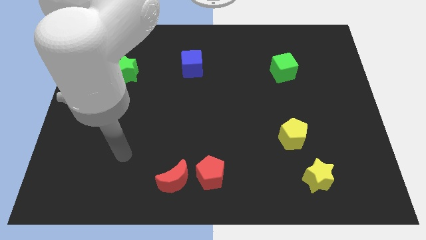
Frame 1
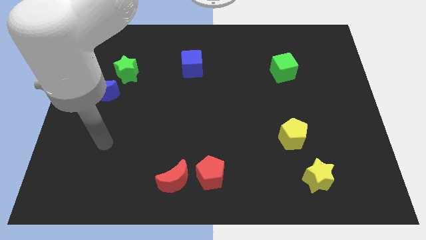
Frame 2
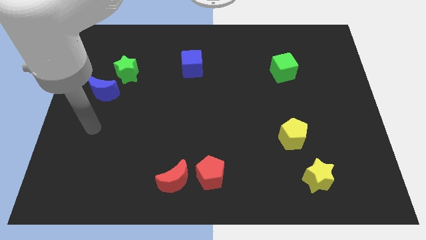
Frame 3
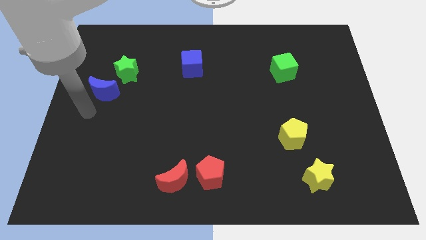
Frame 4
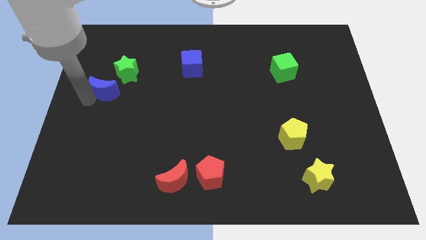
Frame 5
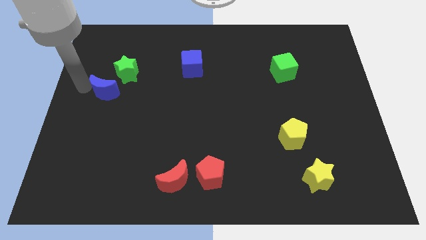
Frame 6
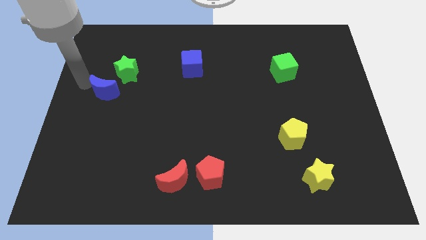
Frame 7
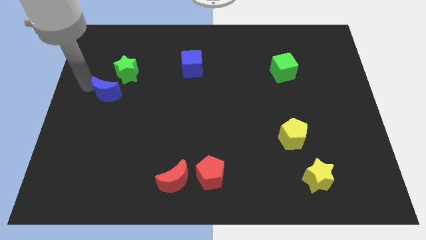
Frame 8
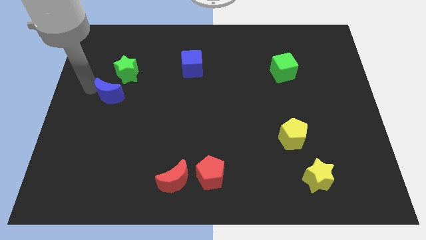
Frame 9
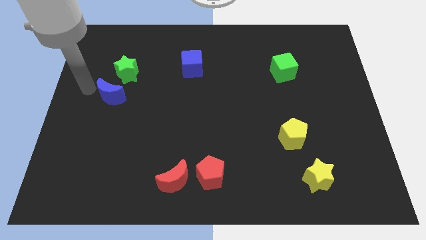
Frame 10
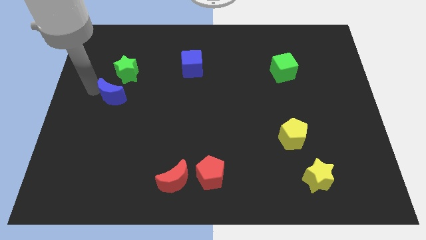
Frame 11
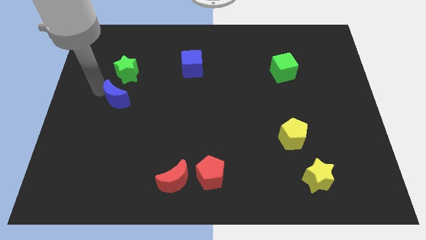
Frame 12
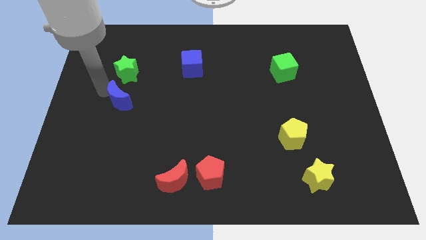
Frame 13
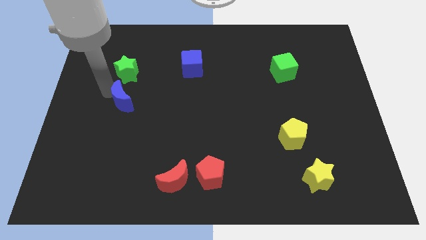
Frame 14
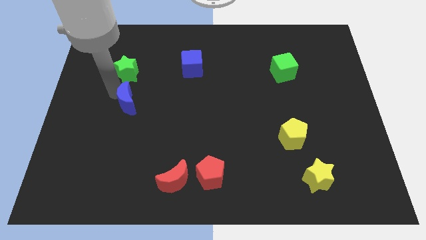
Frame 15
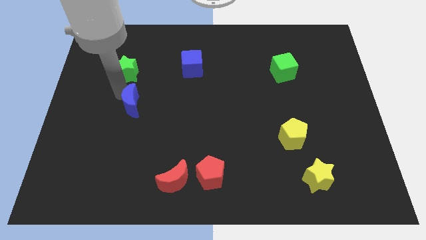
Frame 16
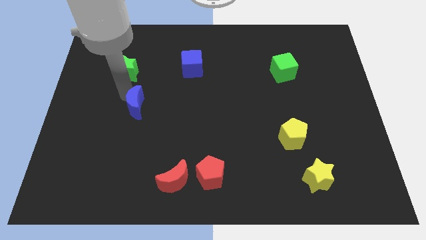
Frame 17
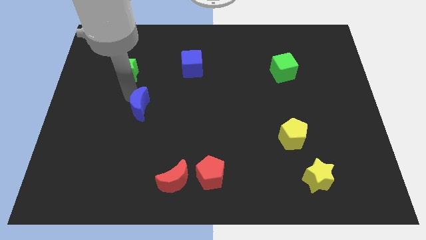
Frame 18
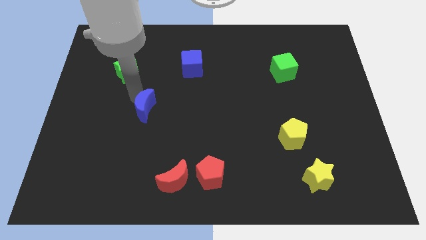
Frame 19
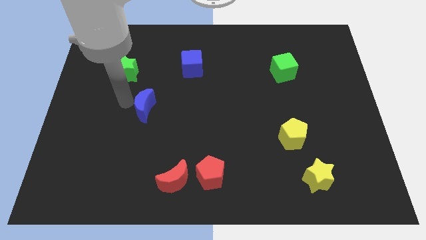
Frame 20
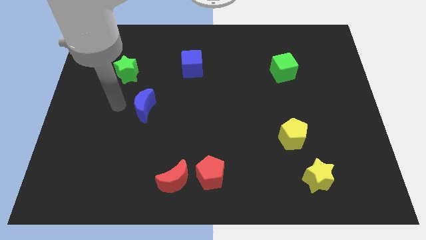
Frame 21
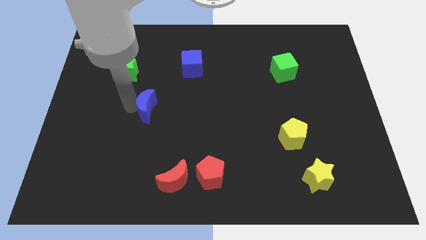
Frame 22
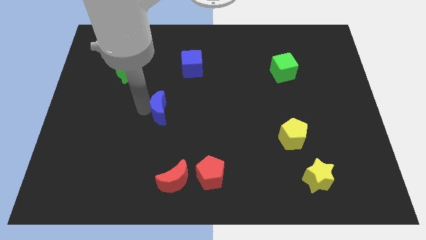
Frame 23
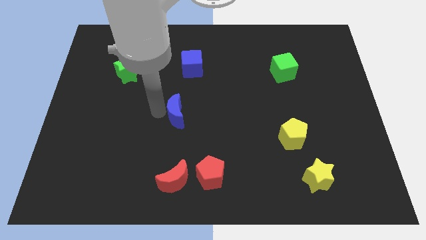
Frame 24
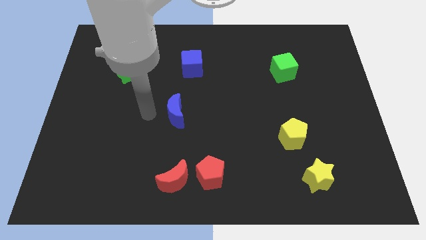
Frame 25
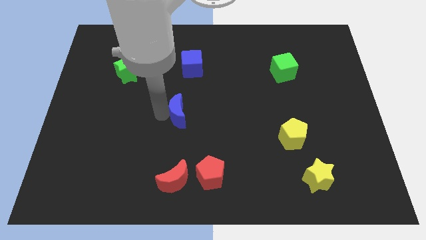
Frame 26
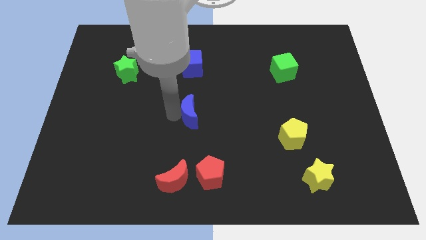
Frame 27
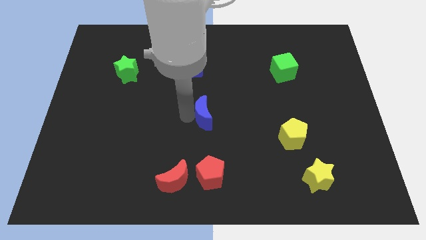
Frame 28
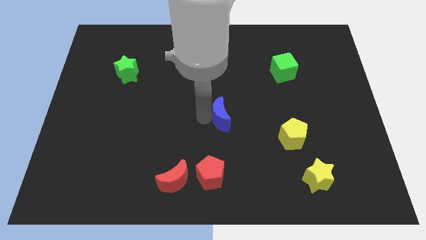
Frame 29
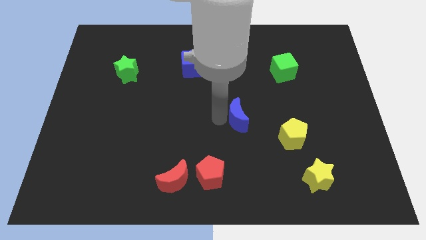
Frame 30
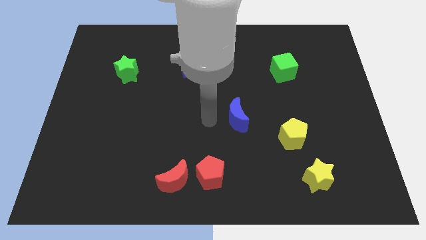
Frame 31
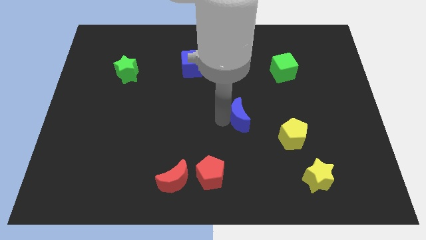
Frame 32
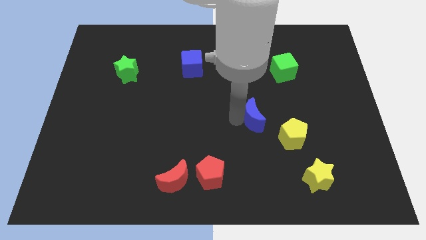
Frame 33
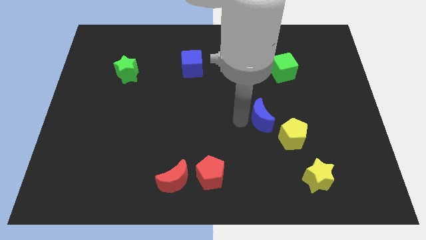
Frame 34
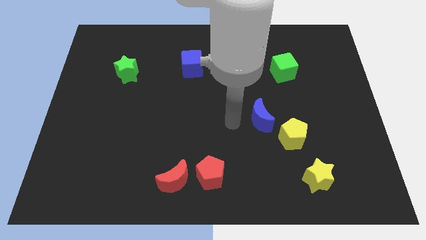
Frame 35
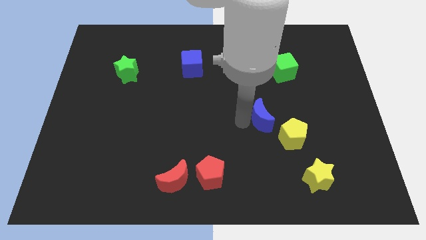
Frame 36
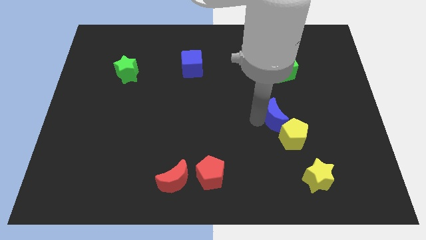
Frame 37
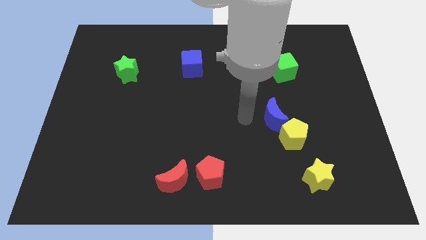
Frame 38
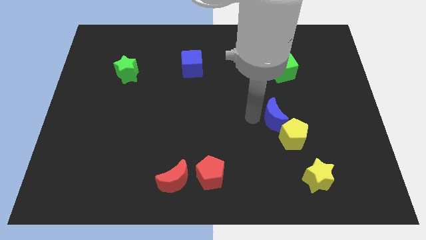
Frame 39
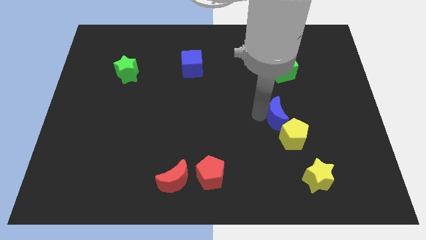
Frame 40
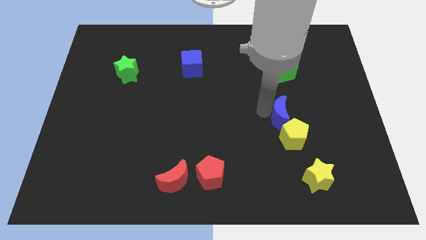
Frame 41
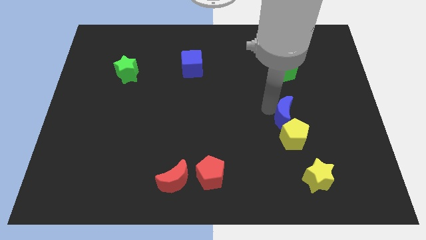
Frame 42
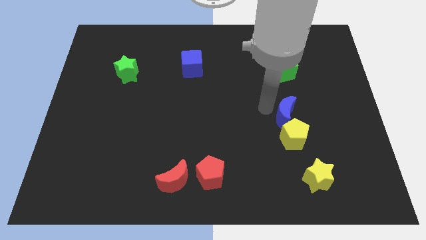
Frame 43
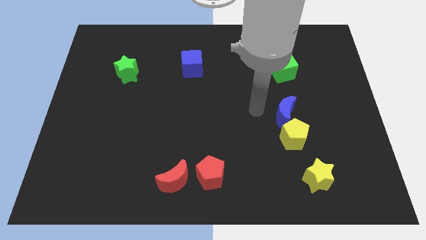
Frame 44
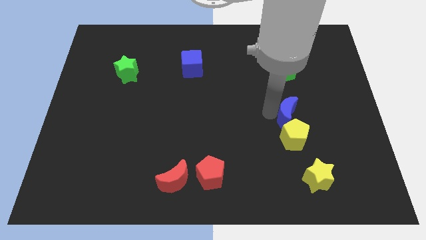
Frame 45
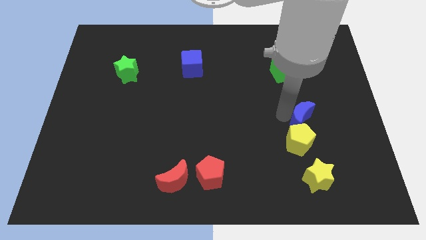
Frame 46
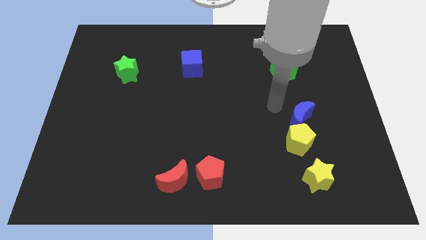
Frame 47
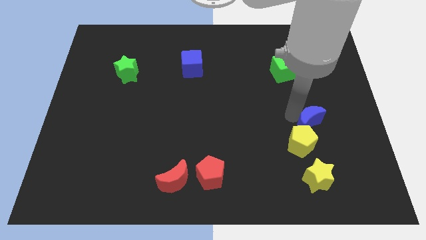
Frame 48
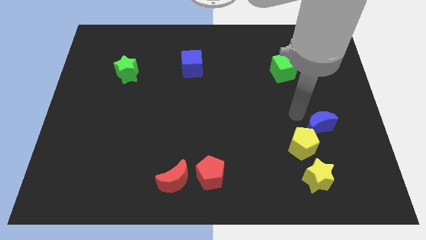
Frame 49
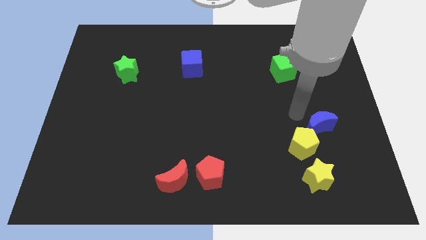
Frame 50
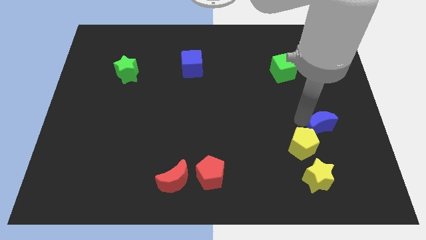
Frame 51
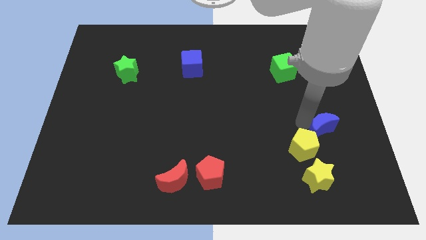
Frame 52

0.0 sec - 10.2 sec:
put the blue moon right of the yellow pentagon

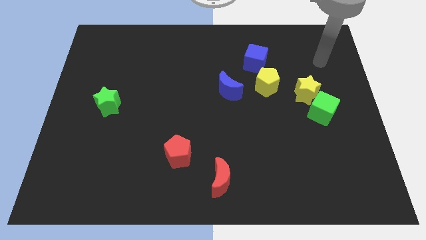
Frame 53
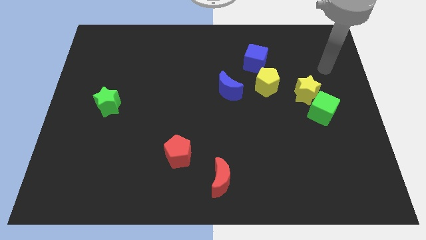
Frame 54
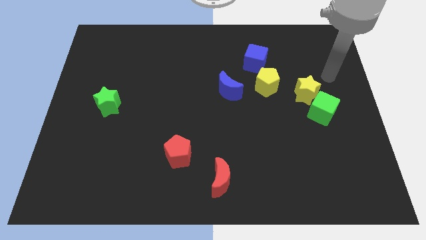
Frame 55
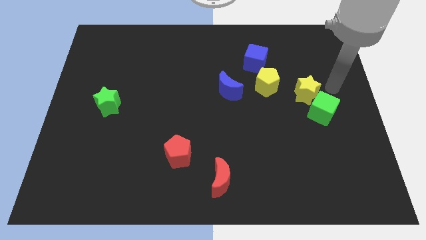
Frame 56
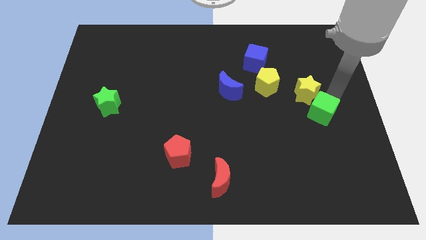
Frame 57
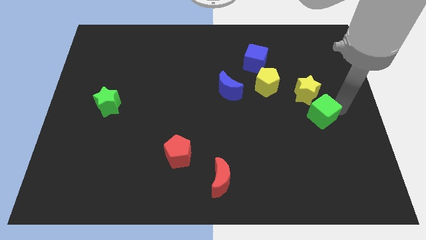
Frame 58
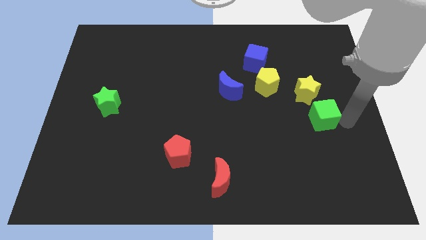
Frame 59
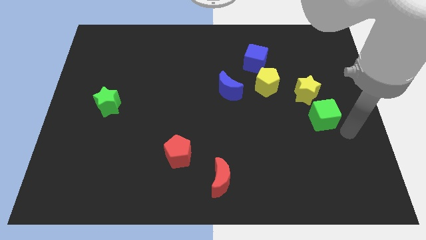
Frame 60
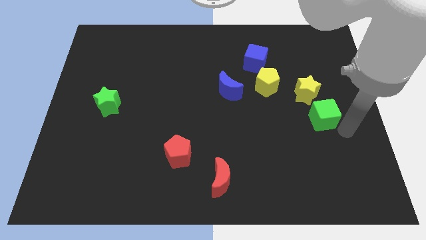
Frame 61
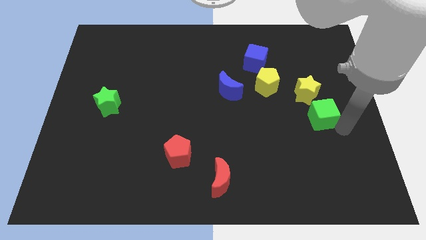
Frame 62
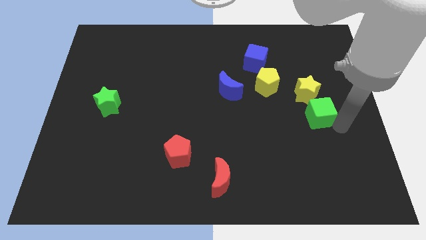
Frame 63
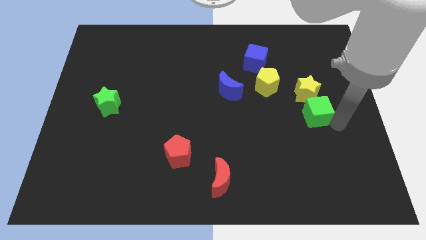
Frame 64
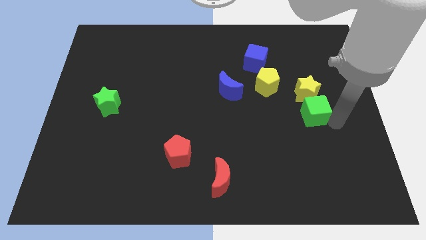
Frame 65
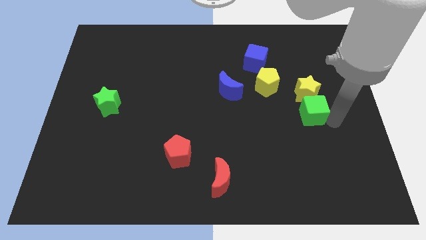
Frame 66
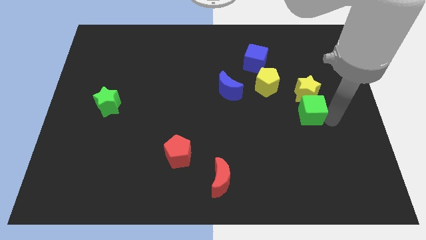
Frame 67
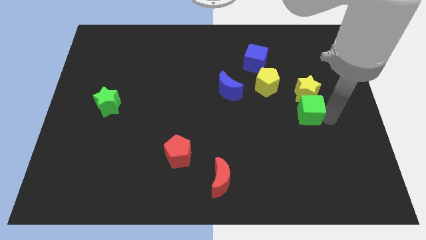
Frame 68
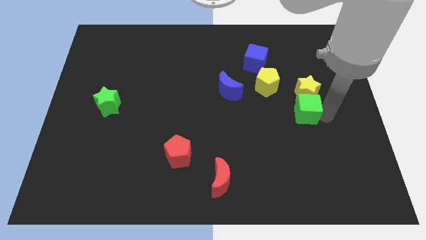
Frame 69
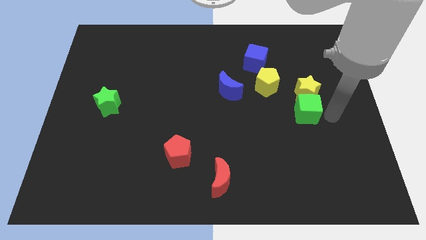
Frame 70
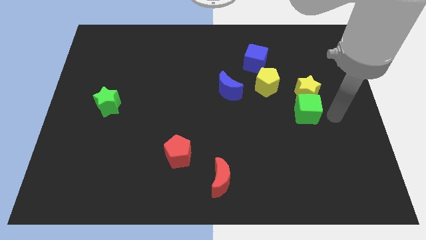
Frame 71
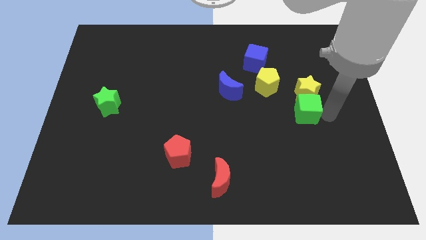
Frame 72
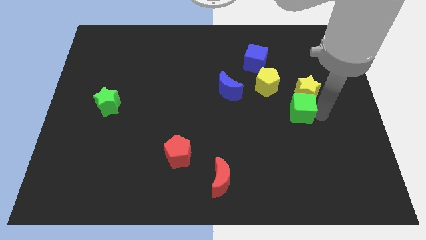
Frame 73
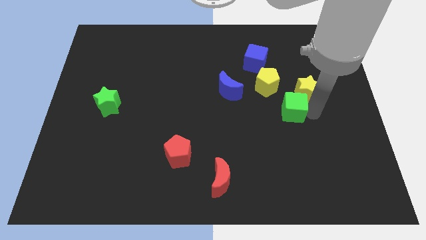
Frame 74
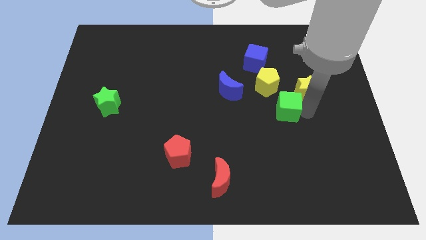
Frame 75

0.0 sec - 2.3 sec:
put the green cube to the left side of the yellow star

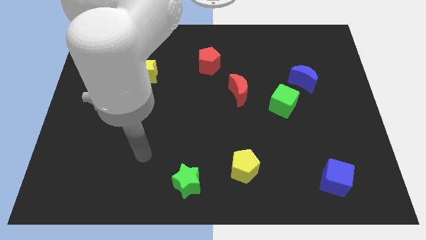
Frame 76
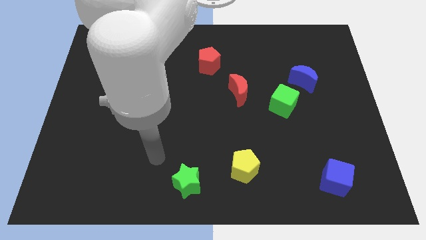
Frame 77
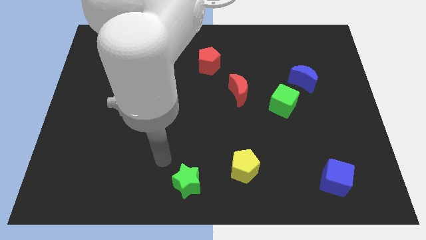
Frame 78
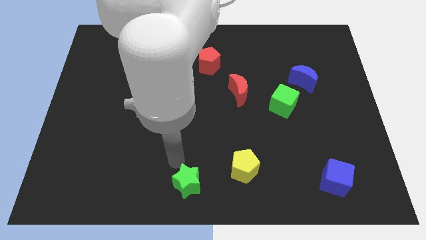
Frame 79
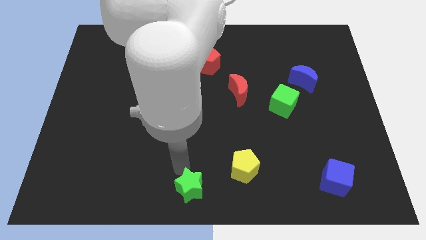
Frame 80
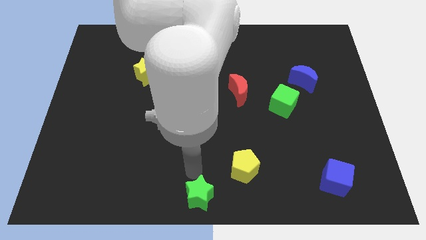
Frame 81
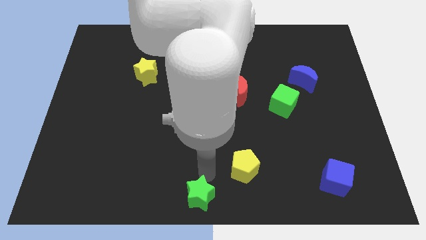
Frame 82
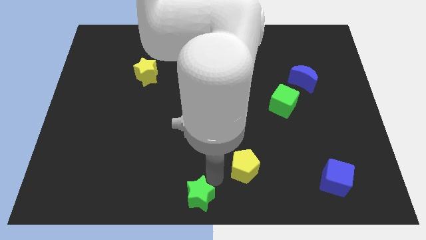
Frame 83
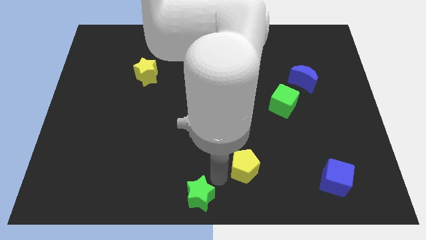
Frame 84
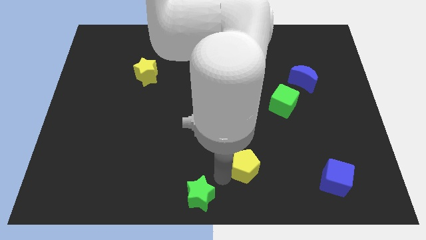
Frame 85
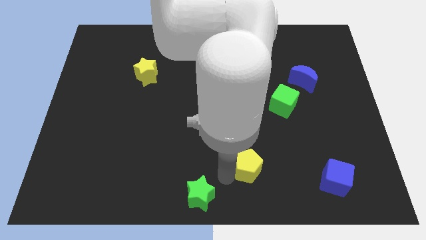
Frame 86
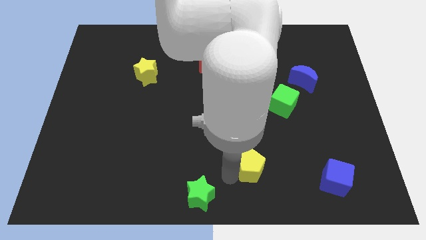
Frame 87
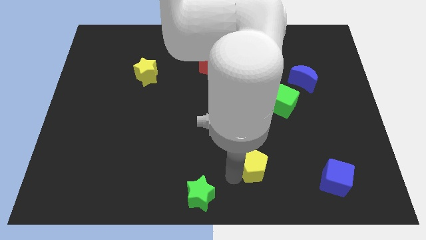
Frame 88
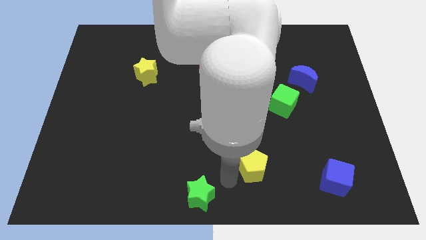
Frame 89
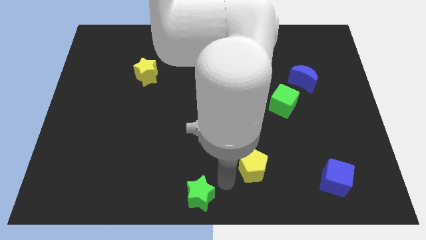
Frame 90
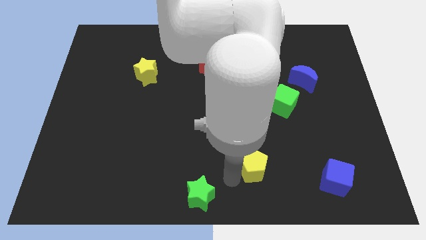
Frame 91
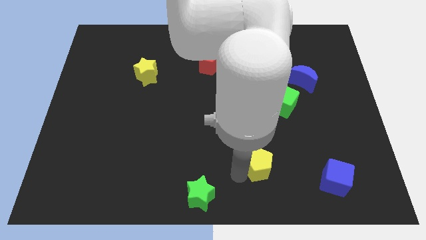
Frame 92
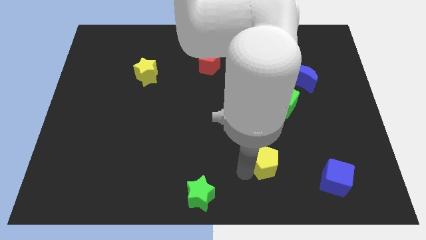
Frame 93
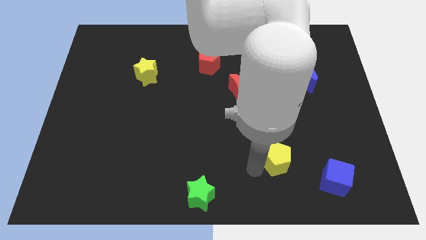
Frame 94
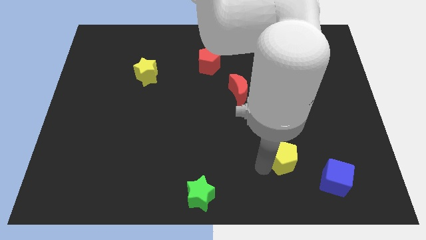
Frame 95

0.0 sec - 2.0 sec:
put the yellow pentagon below the green cube
